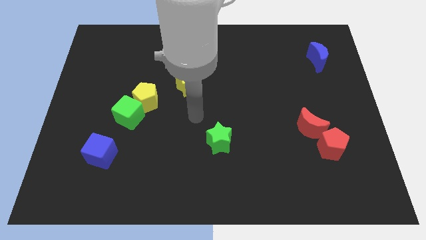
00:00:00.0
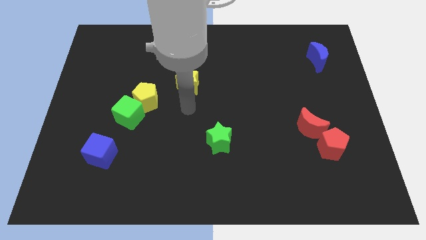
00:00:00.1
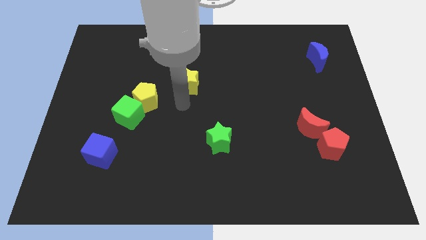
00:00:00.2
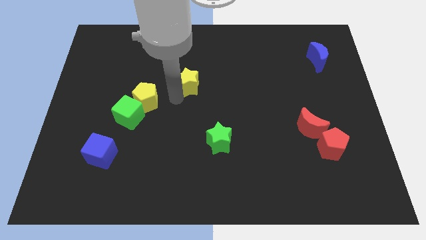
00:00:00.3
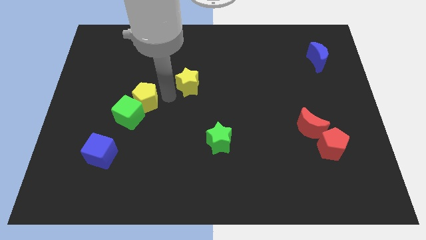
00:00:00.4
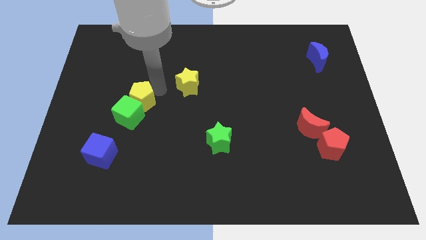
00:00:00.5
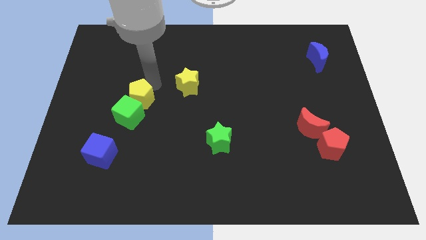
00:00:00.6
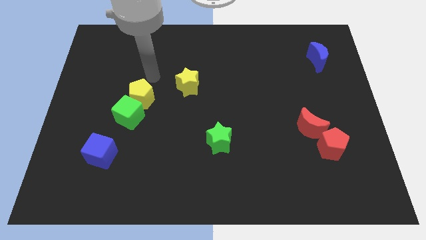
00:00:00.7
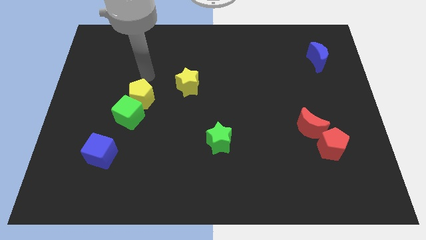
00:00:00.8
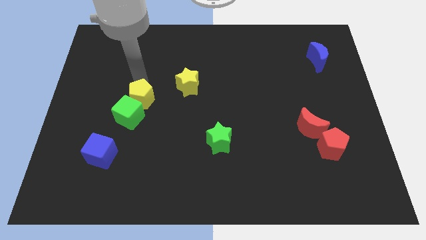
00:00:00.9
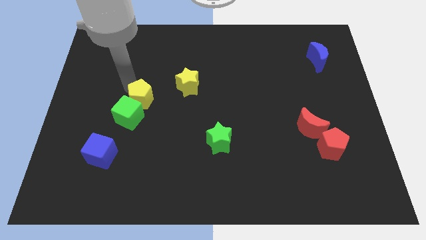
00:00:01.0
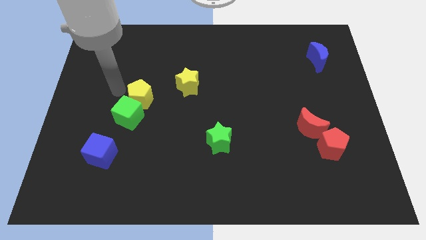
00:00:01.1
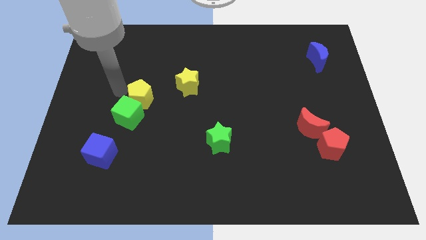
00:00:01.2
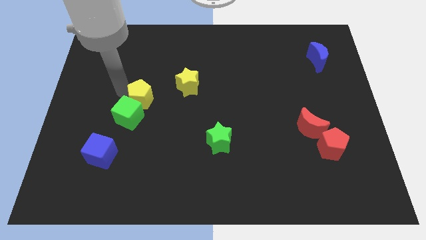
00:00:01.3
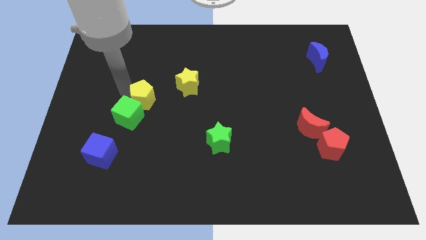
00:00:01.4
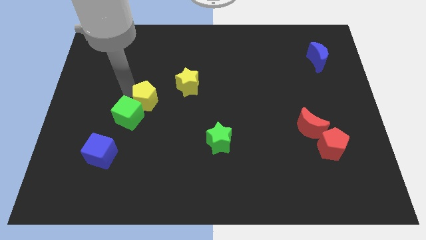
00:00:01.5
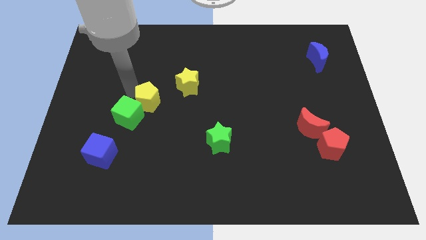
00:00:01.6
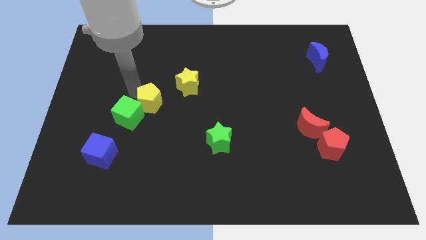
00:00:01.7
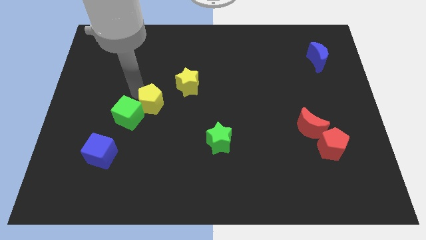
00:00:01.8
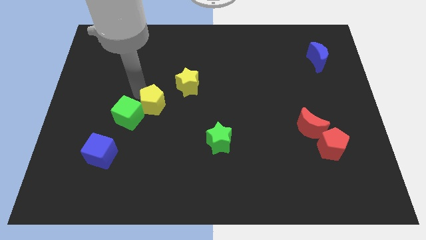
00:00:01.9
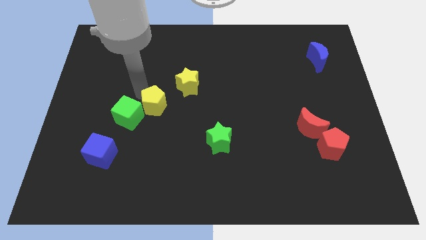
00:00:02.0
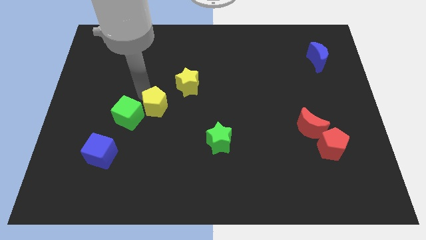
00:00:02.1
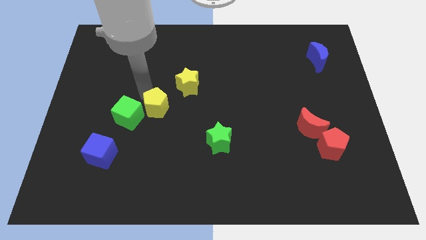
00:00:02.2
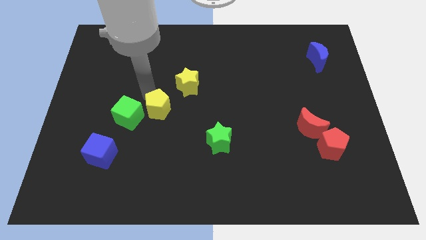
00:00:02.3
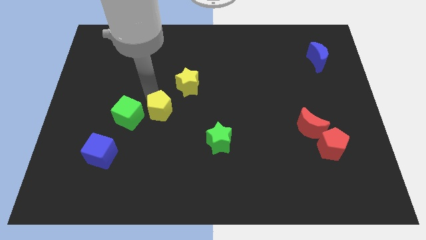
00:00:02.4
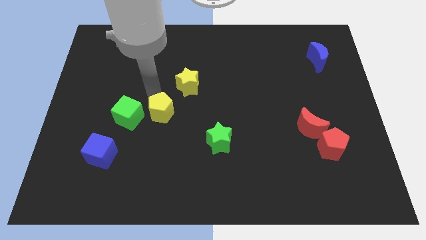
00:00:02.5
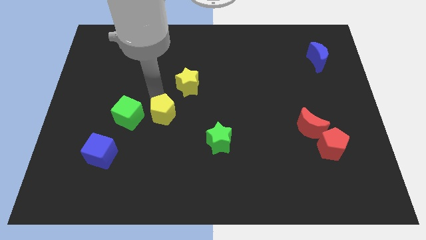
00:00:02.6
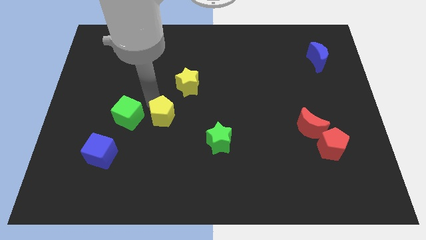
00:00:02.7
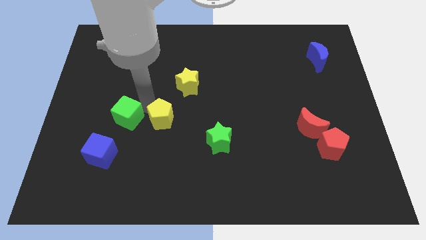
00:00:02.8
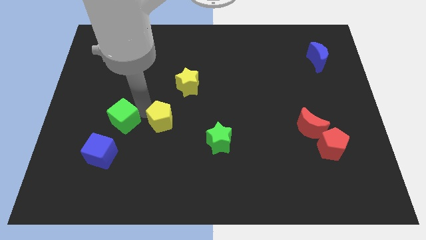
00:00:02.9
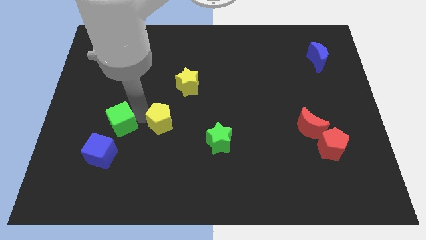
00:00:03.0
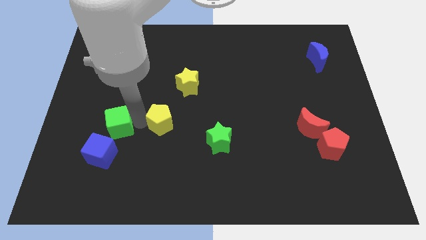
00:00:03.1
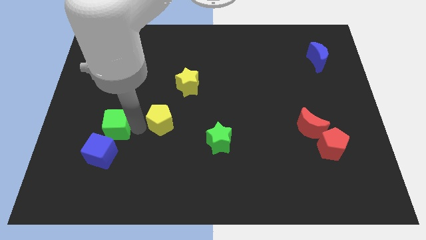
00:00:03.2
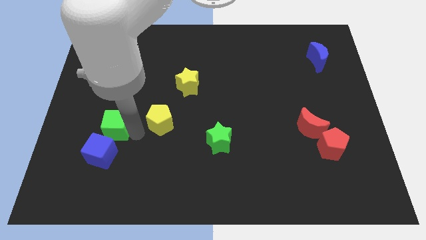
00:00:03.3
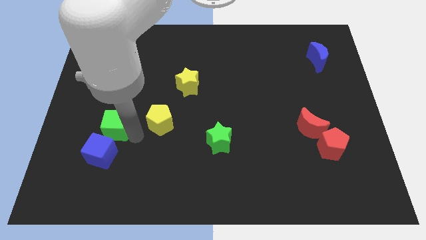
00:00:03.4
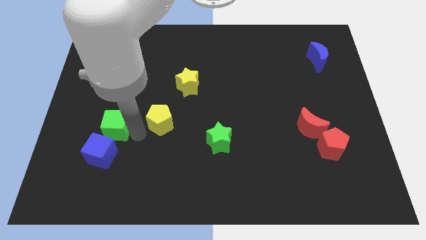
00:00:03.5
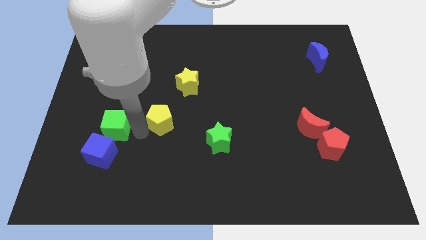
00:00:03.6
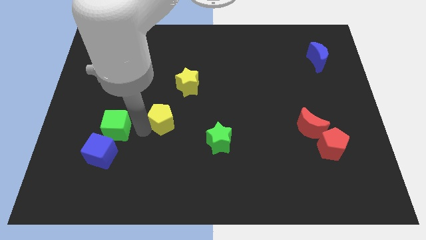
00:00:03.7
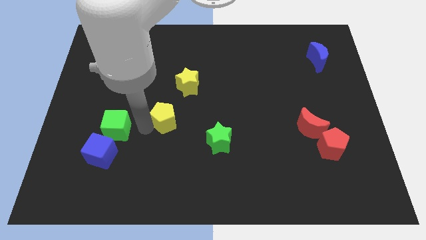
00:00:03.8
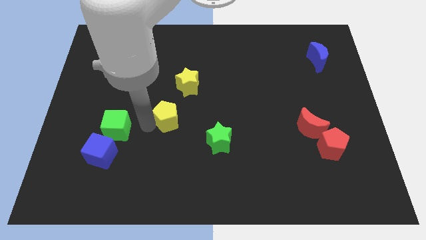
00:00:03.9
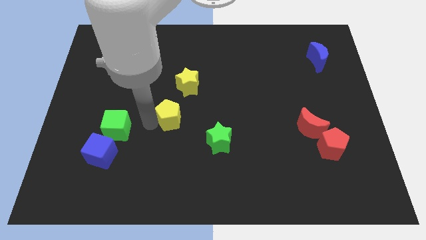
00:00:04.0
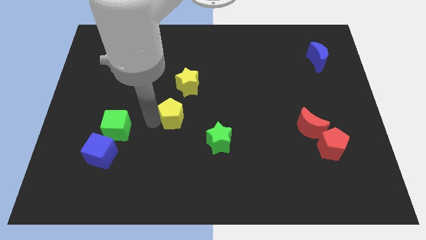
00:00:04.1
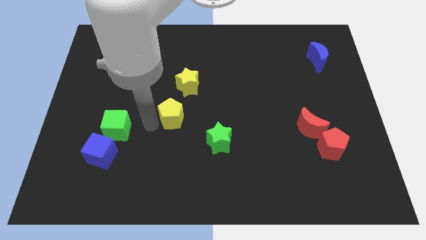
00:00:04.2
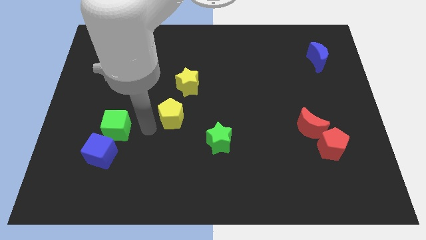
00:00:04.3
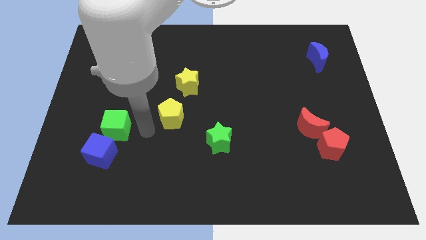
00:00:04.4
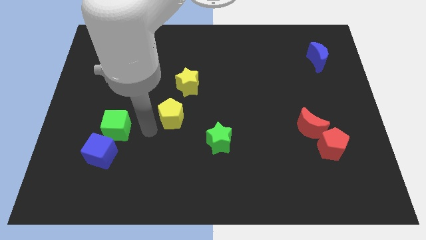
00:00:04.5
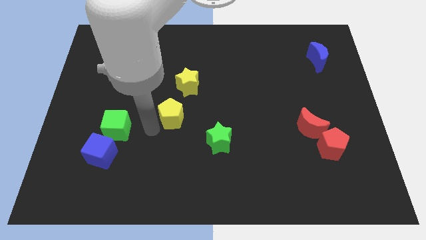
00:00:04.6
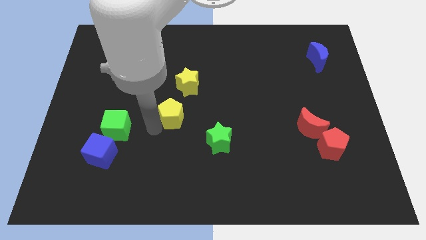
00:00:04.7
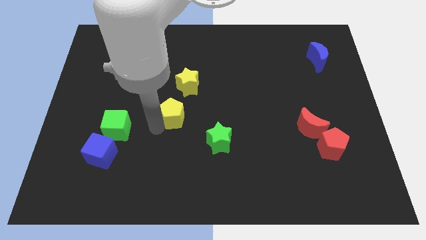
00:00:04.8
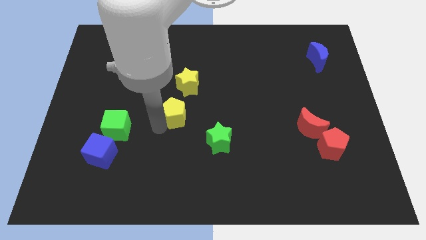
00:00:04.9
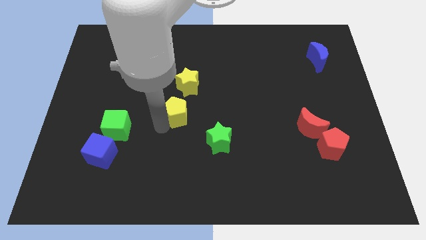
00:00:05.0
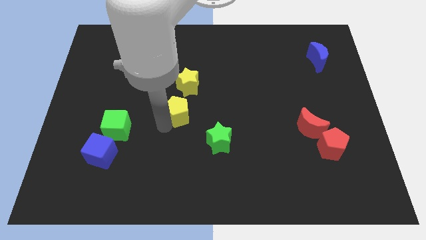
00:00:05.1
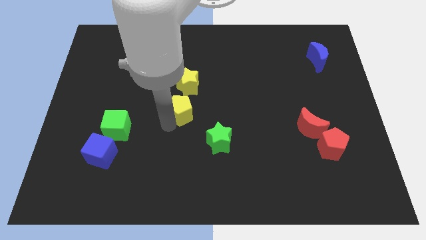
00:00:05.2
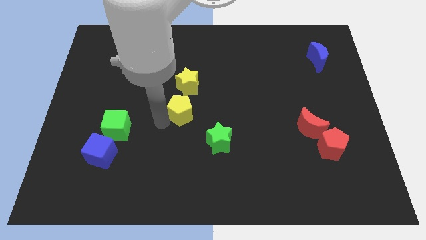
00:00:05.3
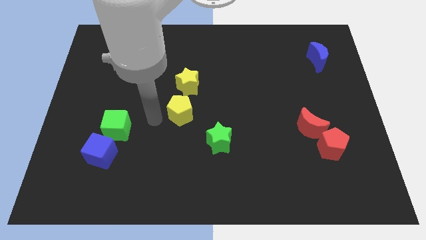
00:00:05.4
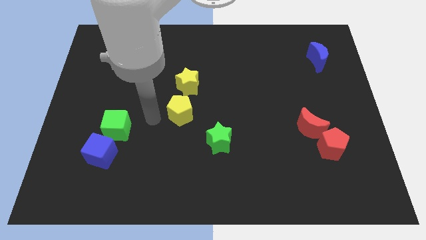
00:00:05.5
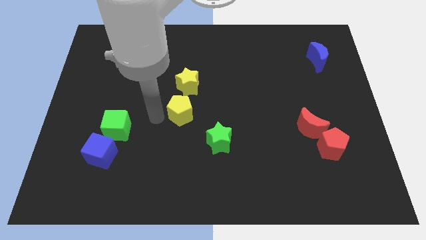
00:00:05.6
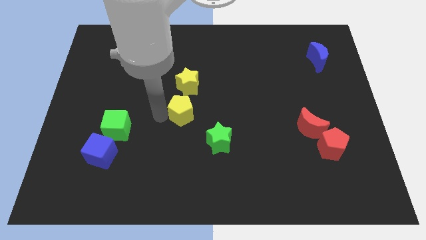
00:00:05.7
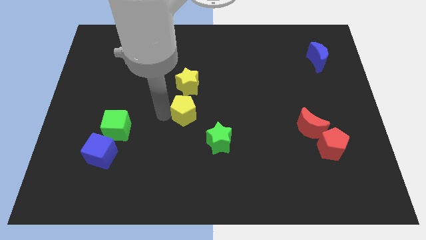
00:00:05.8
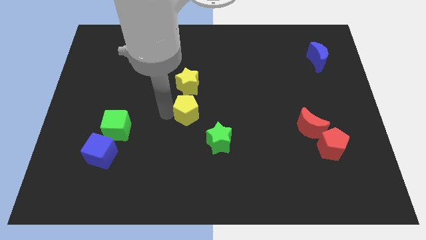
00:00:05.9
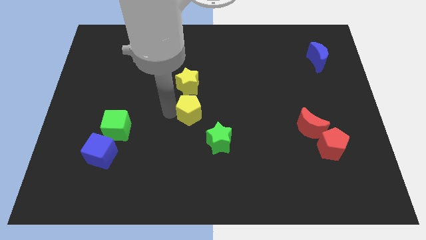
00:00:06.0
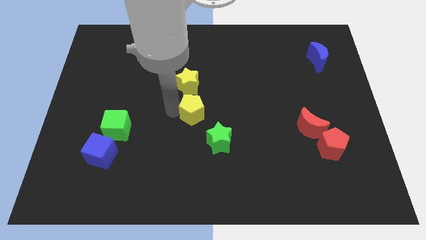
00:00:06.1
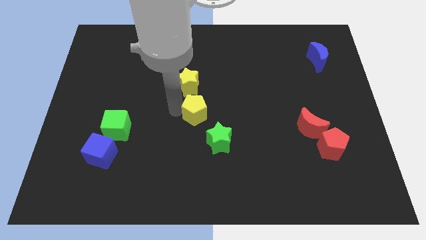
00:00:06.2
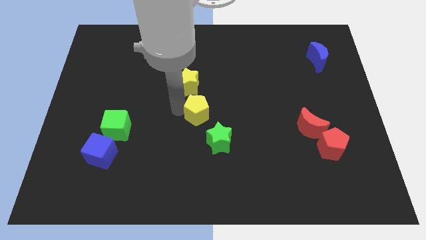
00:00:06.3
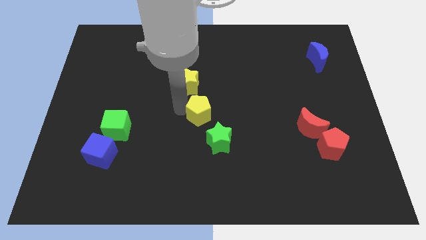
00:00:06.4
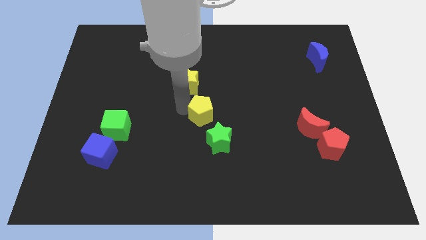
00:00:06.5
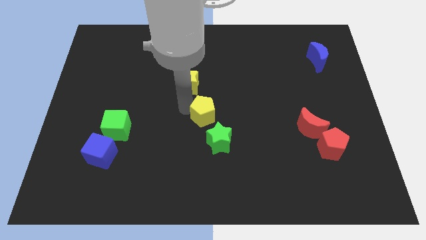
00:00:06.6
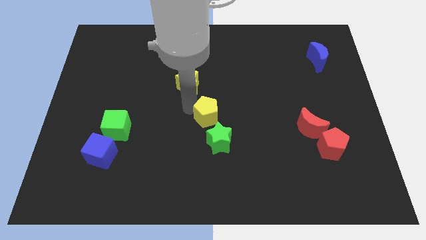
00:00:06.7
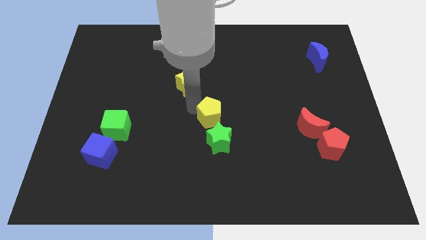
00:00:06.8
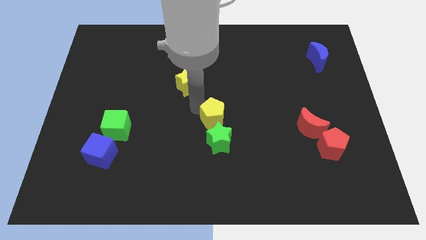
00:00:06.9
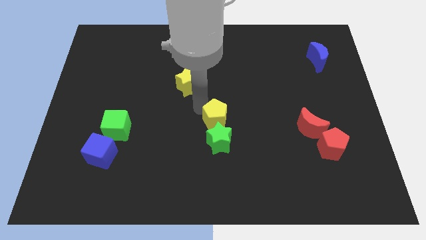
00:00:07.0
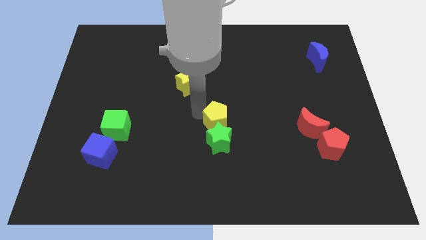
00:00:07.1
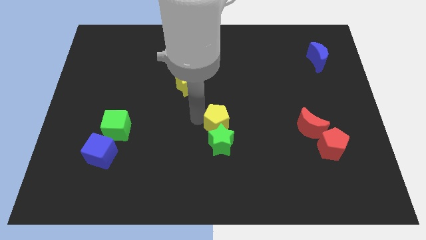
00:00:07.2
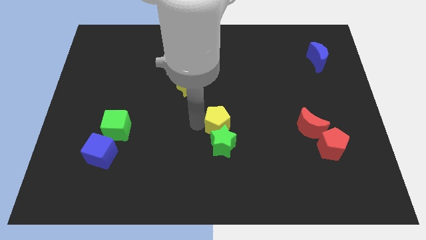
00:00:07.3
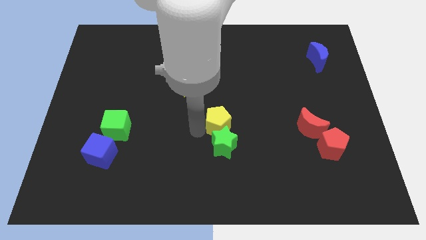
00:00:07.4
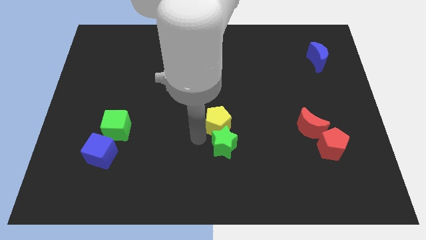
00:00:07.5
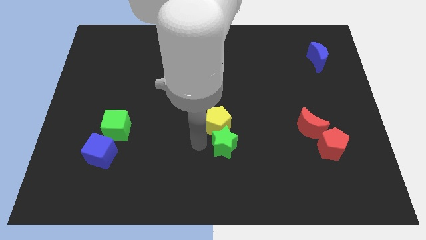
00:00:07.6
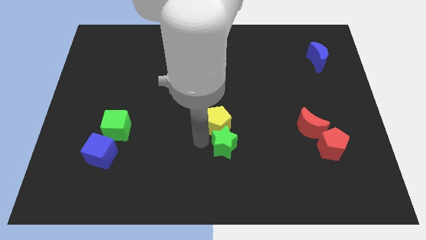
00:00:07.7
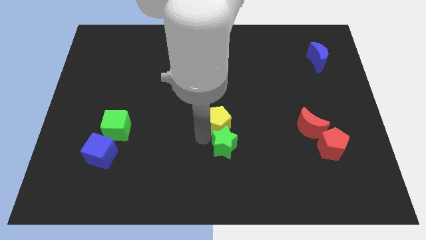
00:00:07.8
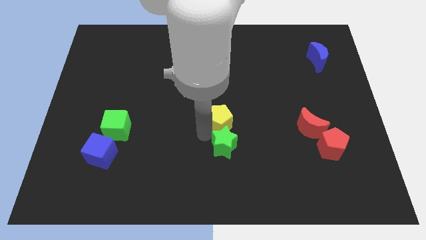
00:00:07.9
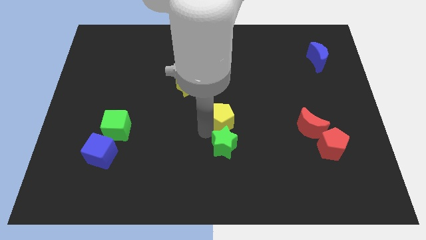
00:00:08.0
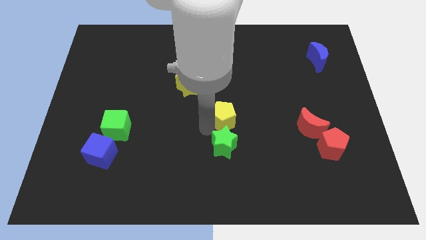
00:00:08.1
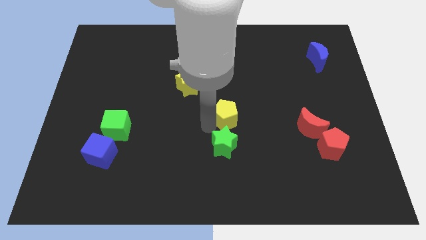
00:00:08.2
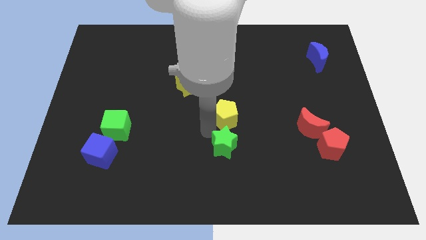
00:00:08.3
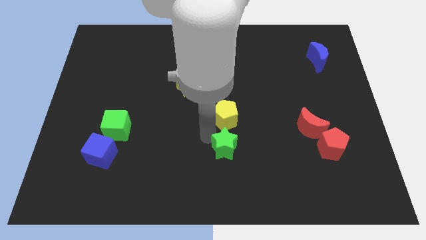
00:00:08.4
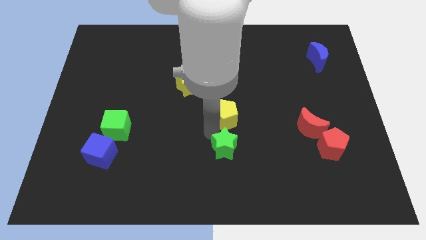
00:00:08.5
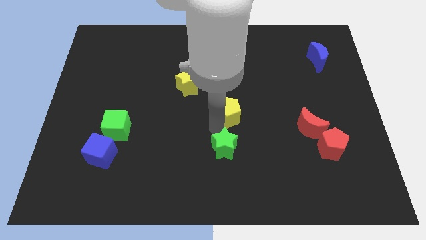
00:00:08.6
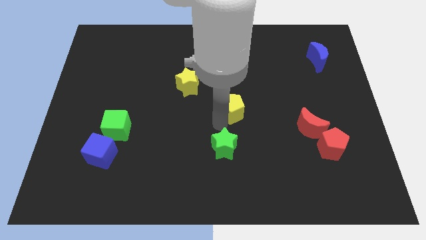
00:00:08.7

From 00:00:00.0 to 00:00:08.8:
slide the yellow pentagon to the right
